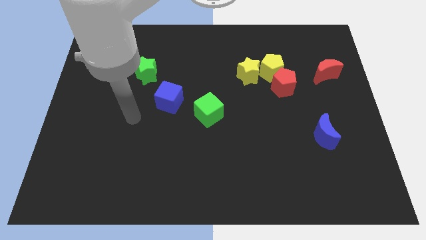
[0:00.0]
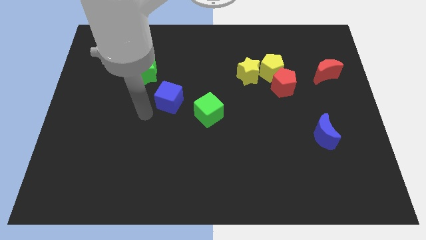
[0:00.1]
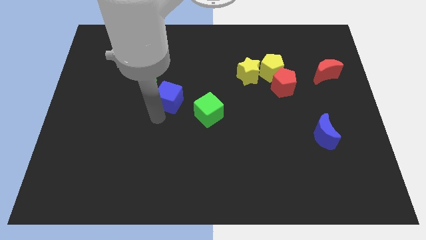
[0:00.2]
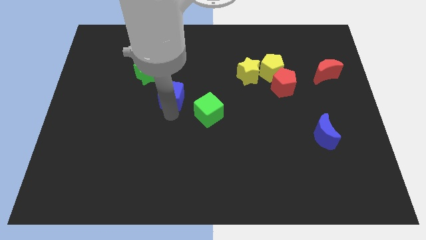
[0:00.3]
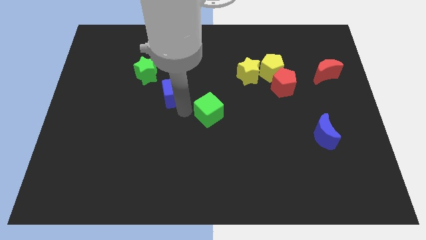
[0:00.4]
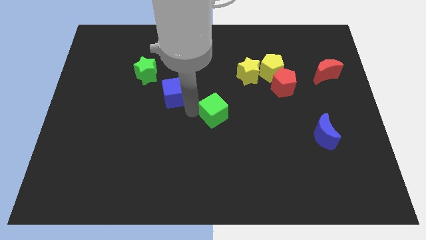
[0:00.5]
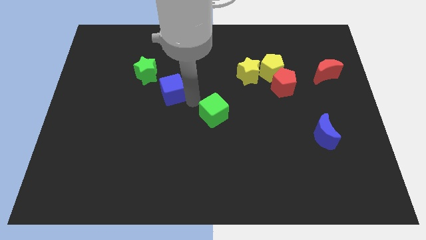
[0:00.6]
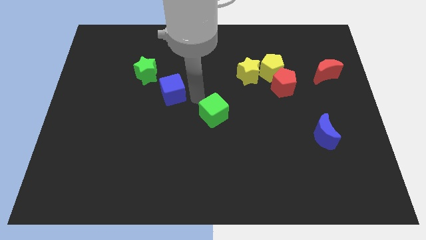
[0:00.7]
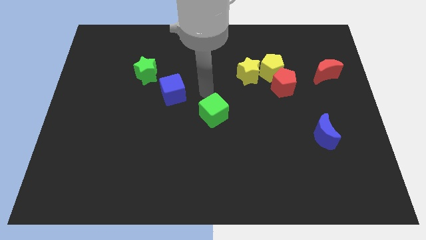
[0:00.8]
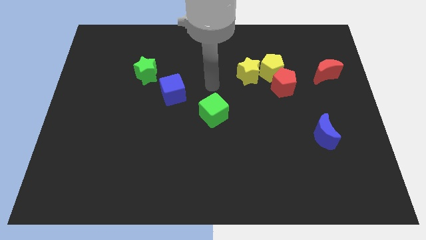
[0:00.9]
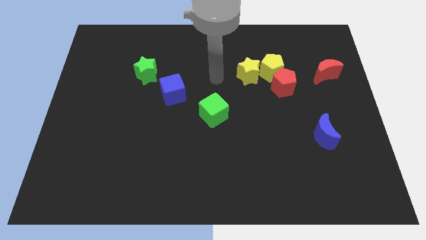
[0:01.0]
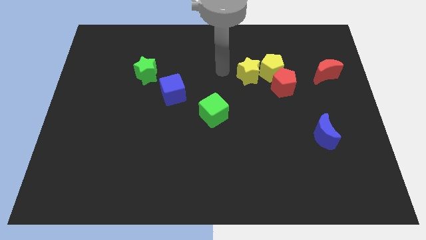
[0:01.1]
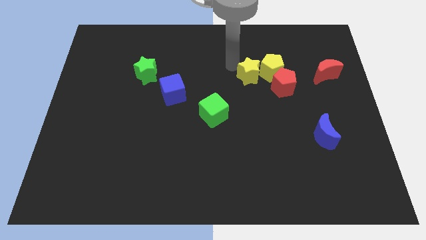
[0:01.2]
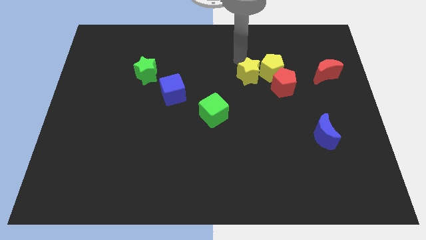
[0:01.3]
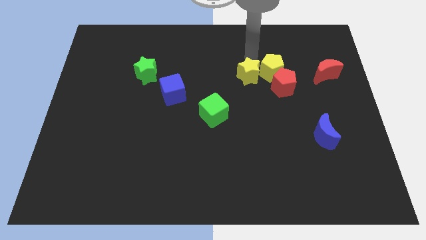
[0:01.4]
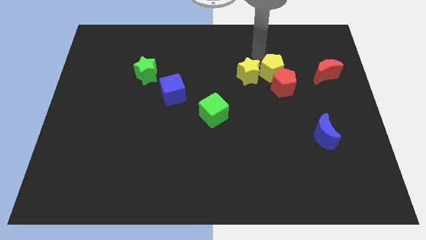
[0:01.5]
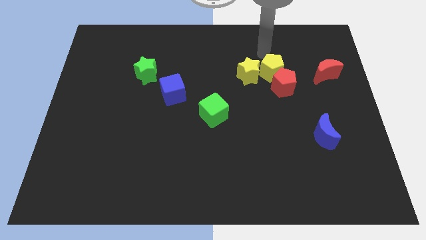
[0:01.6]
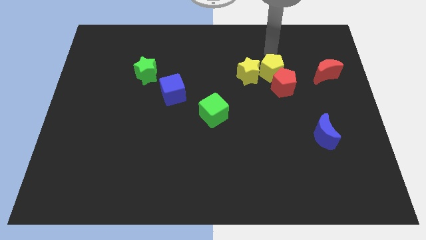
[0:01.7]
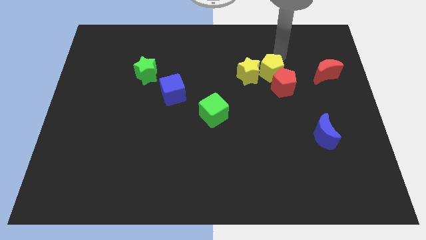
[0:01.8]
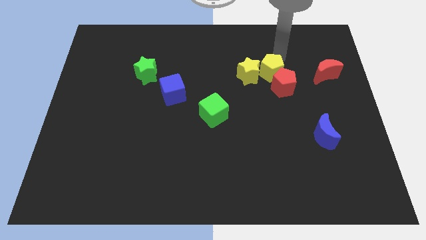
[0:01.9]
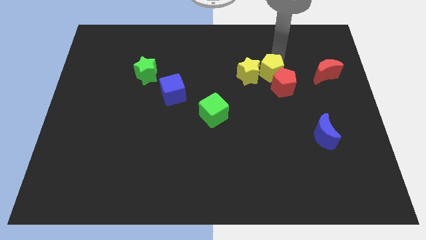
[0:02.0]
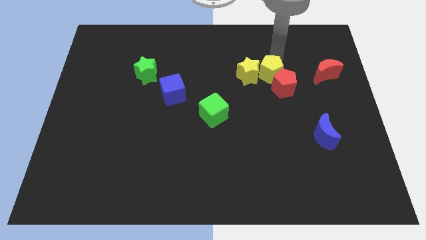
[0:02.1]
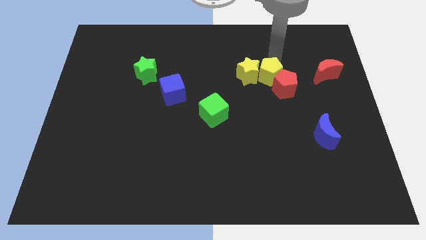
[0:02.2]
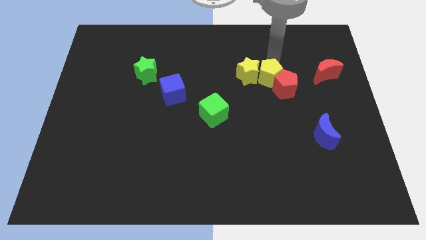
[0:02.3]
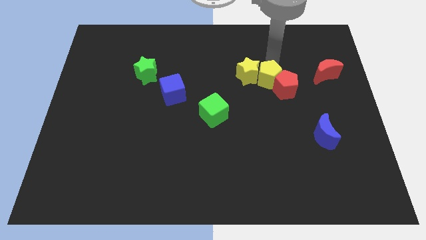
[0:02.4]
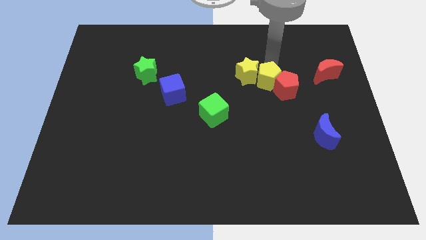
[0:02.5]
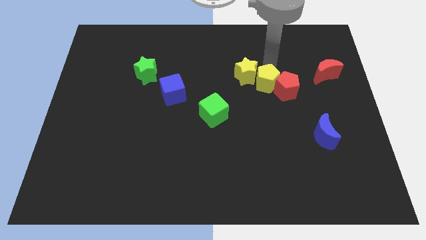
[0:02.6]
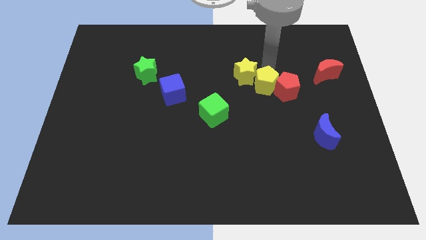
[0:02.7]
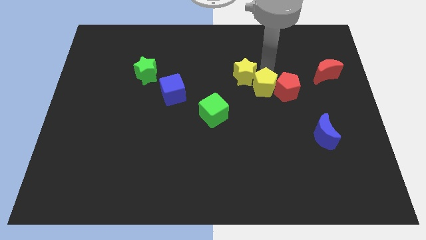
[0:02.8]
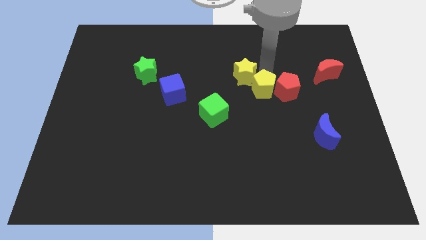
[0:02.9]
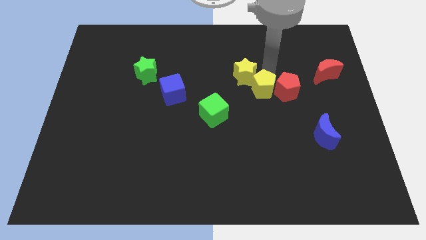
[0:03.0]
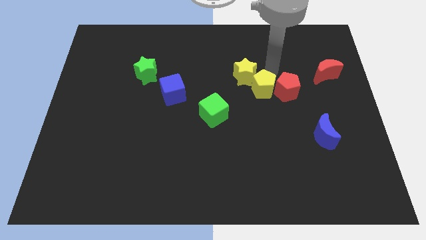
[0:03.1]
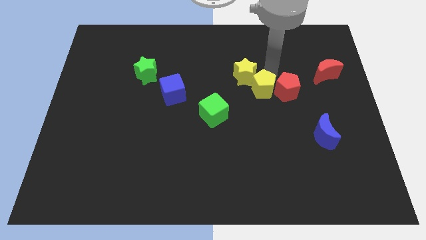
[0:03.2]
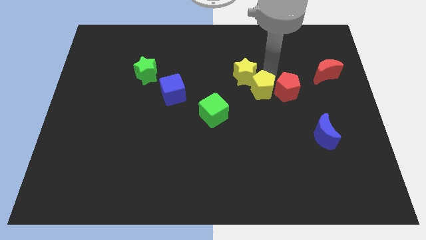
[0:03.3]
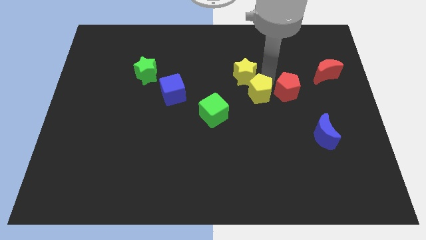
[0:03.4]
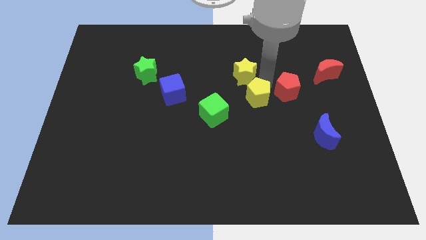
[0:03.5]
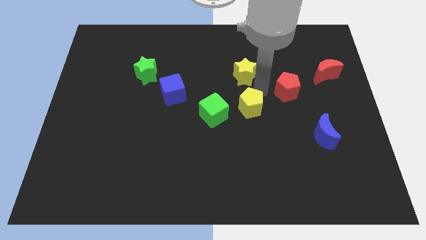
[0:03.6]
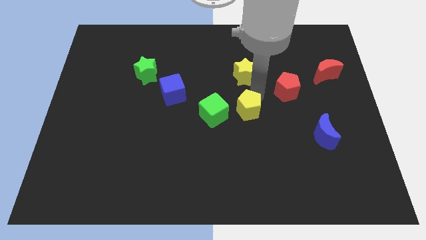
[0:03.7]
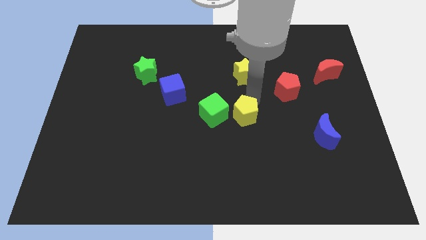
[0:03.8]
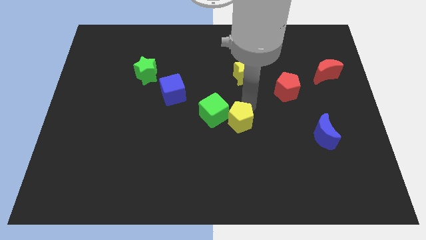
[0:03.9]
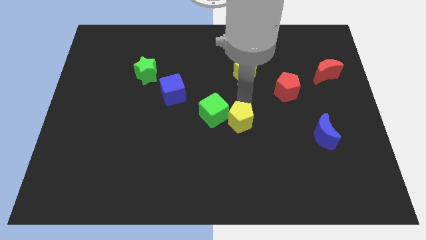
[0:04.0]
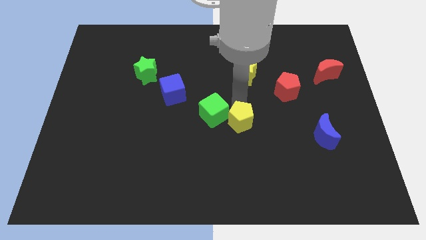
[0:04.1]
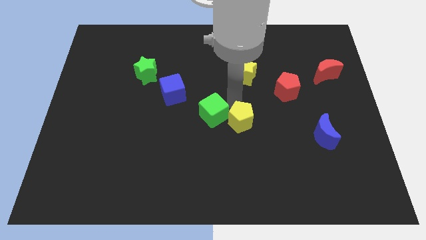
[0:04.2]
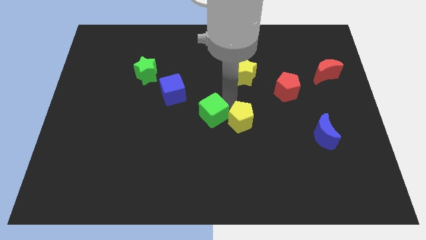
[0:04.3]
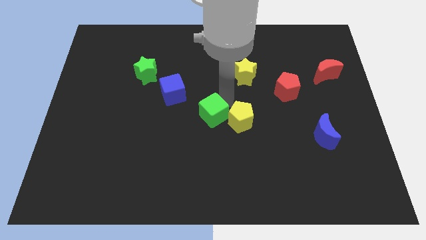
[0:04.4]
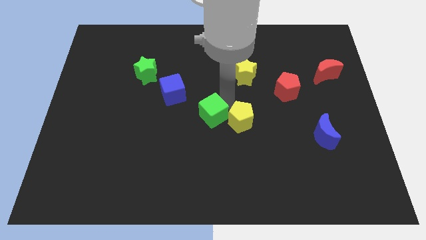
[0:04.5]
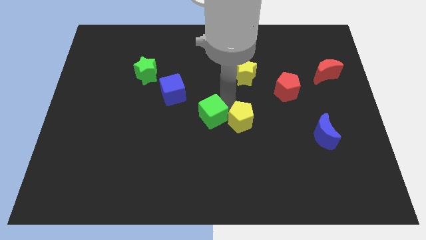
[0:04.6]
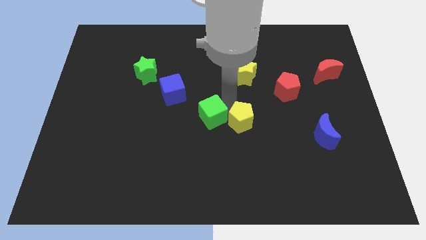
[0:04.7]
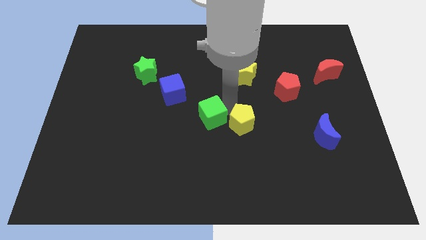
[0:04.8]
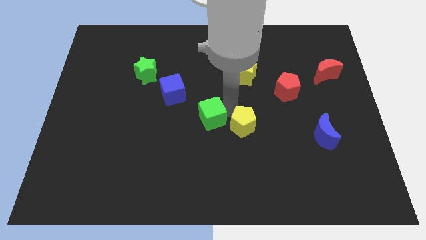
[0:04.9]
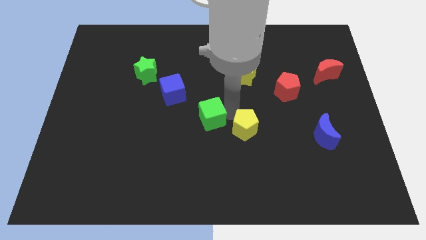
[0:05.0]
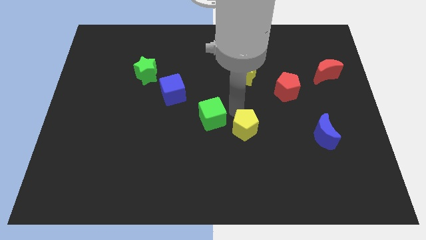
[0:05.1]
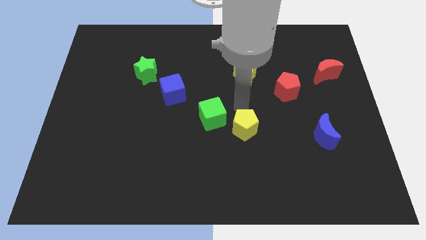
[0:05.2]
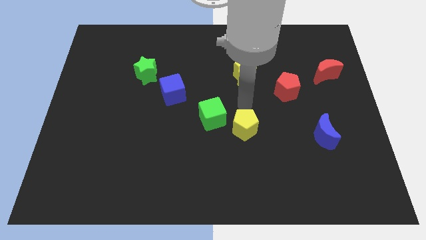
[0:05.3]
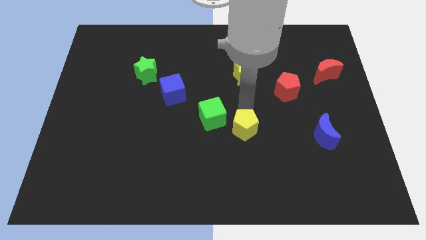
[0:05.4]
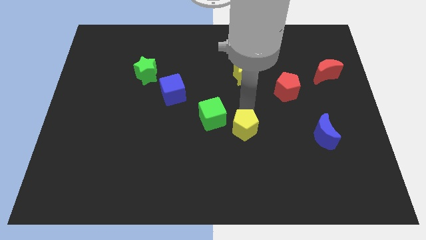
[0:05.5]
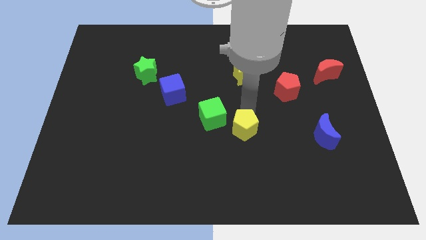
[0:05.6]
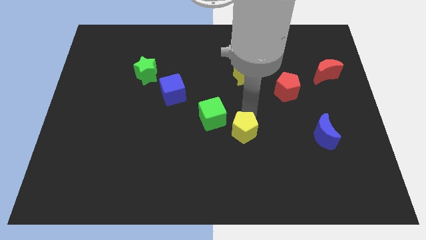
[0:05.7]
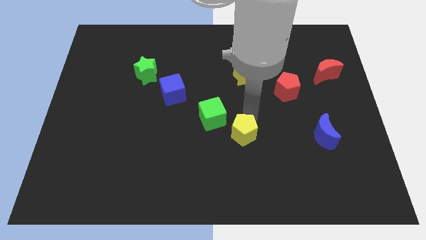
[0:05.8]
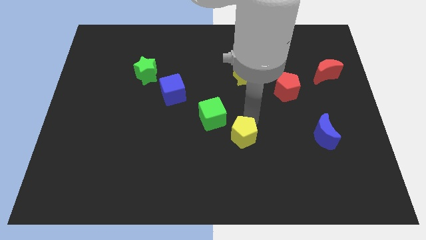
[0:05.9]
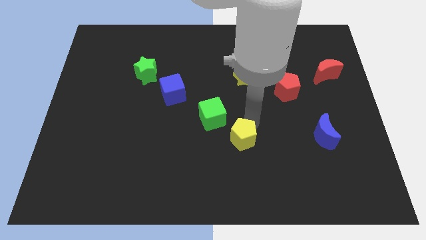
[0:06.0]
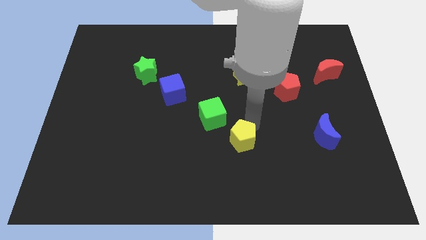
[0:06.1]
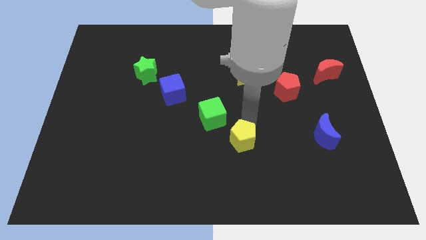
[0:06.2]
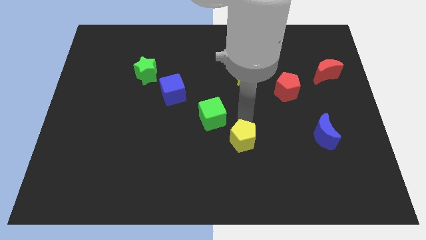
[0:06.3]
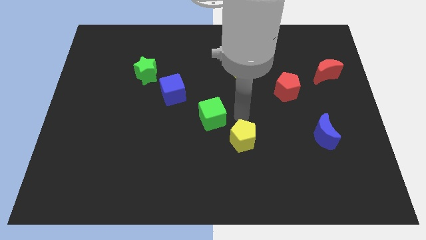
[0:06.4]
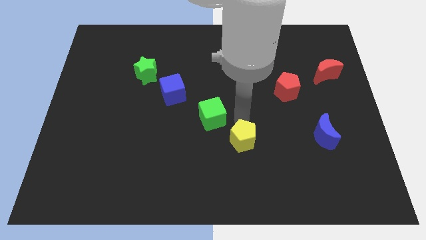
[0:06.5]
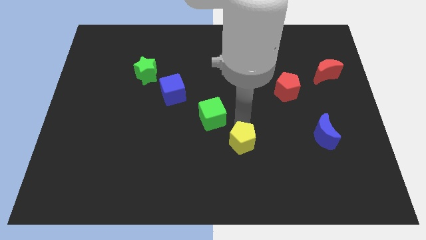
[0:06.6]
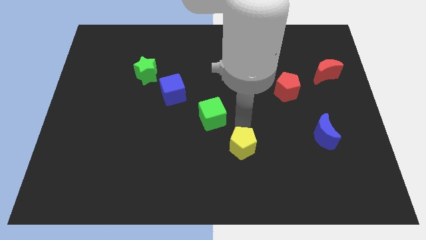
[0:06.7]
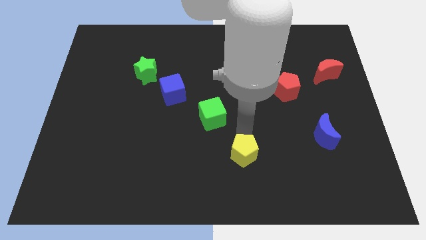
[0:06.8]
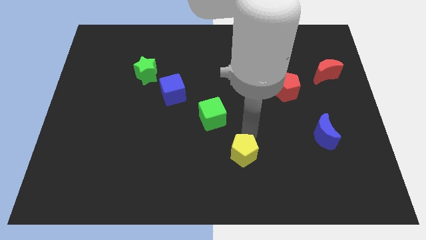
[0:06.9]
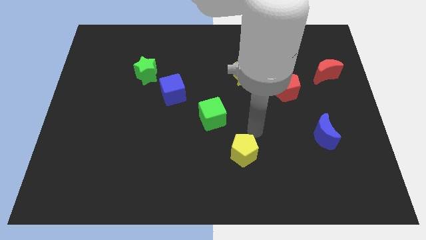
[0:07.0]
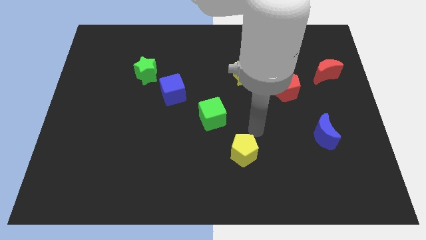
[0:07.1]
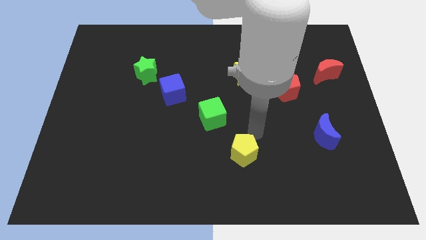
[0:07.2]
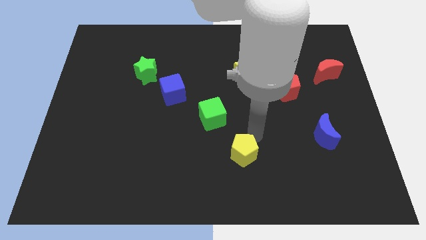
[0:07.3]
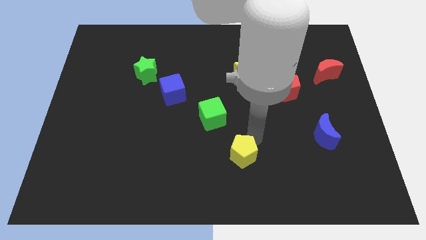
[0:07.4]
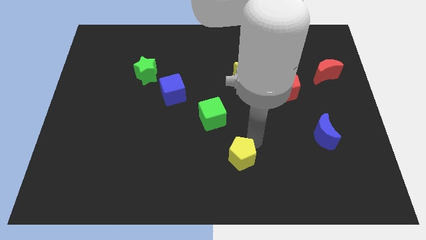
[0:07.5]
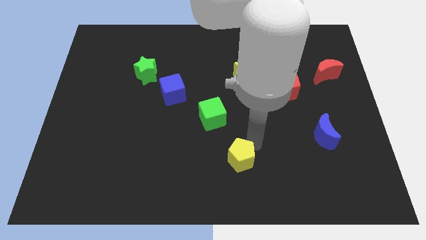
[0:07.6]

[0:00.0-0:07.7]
move the yellow pentagon to the bottom
